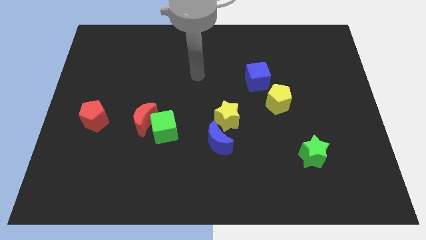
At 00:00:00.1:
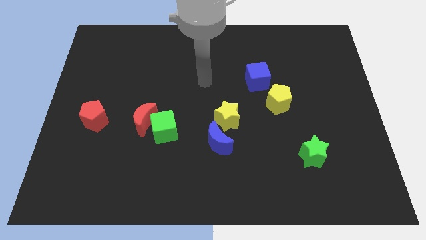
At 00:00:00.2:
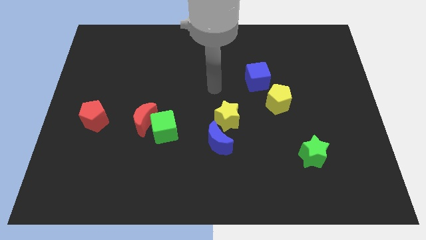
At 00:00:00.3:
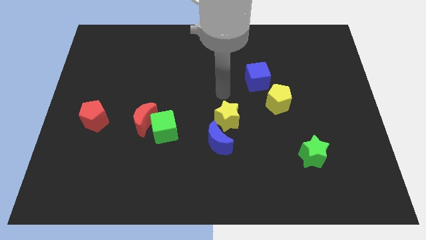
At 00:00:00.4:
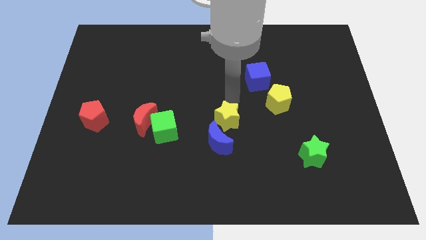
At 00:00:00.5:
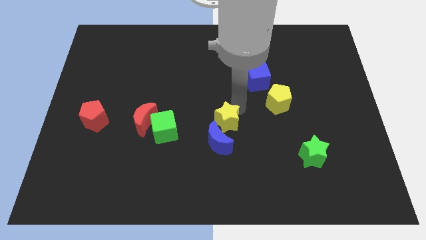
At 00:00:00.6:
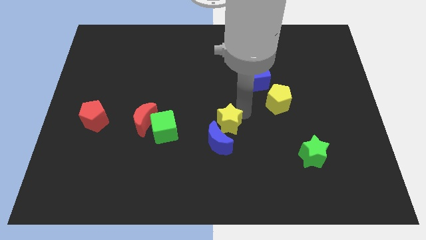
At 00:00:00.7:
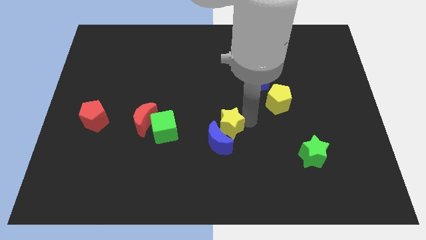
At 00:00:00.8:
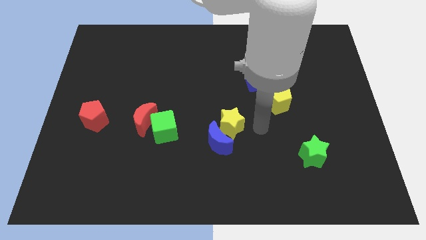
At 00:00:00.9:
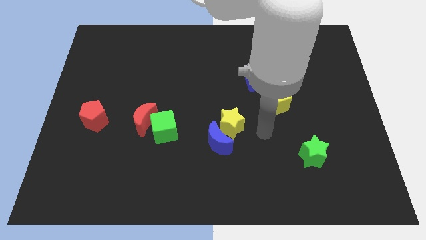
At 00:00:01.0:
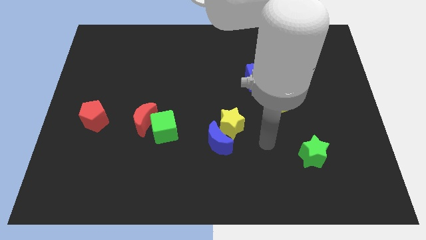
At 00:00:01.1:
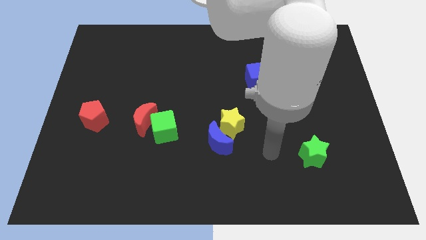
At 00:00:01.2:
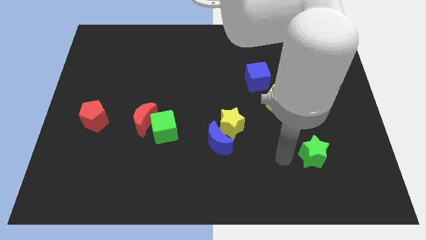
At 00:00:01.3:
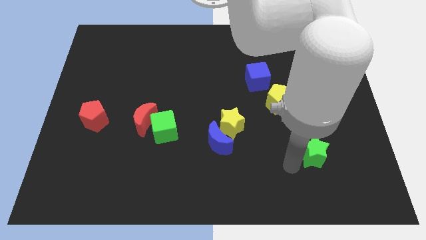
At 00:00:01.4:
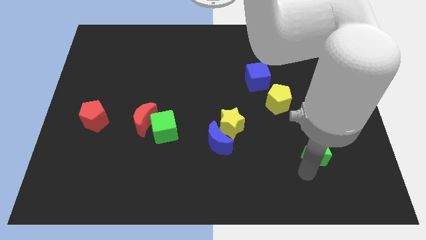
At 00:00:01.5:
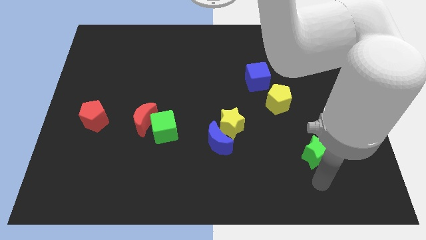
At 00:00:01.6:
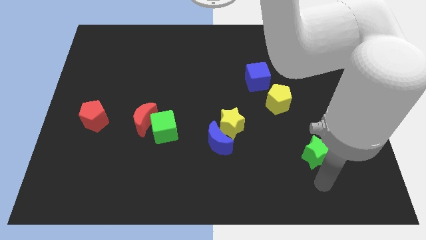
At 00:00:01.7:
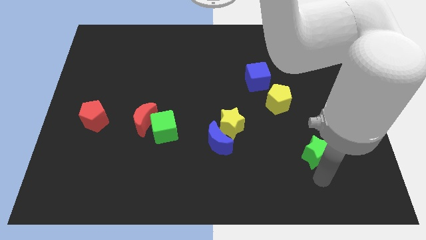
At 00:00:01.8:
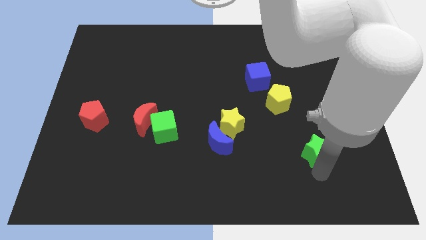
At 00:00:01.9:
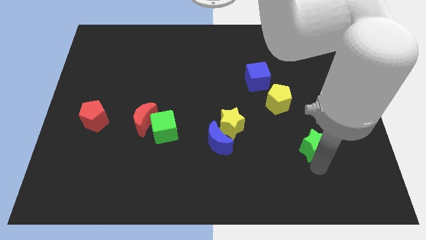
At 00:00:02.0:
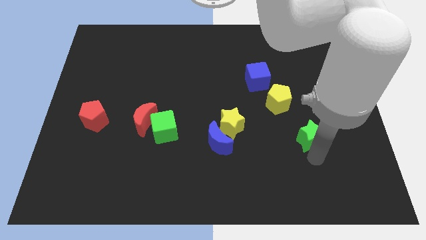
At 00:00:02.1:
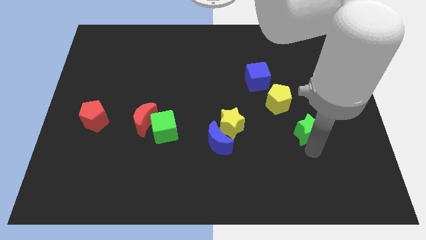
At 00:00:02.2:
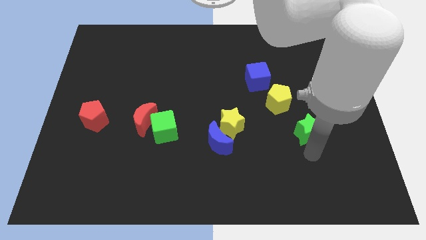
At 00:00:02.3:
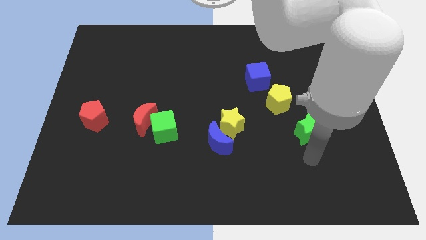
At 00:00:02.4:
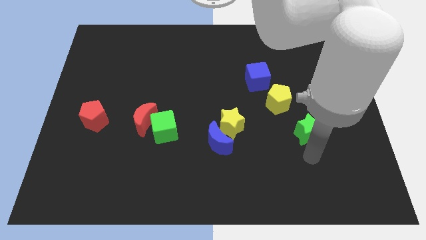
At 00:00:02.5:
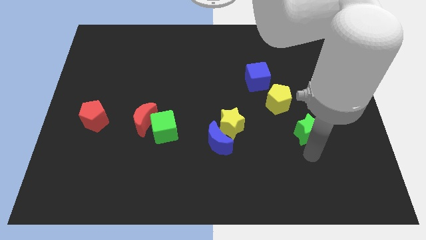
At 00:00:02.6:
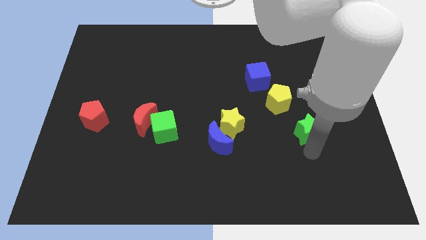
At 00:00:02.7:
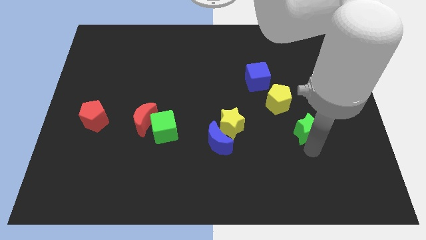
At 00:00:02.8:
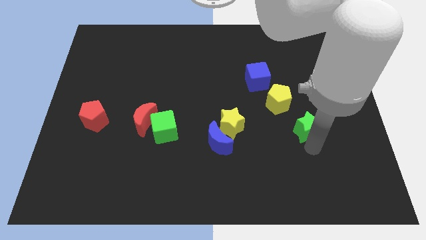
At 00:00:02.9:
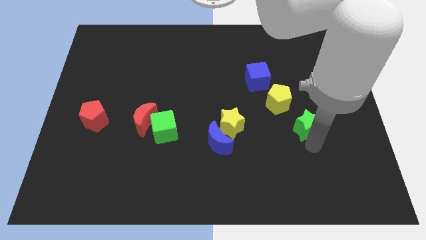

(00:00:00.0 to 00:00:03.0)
move the green star slightly up

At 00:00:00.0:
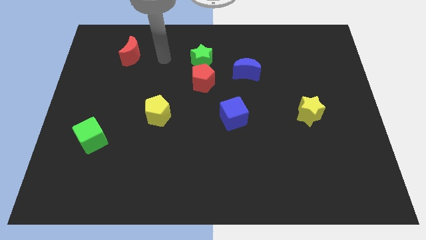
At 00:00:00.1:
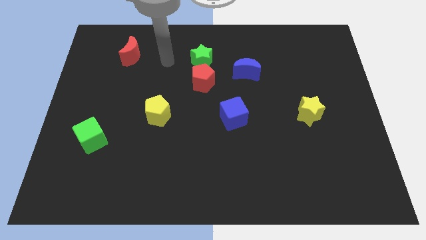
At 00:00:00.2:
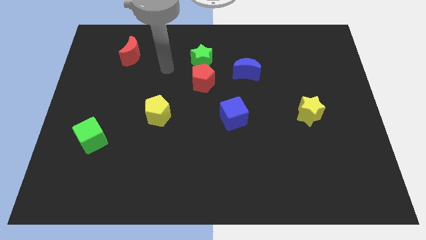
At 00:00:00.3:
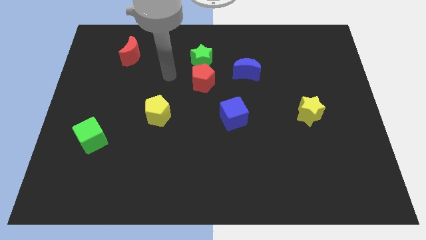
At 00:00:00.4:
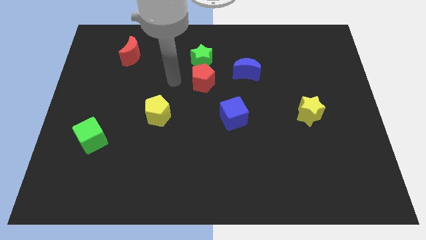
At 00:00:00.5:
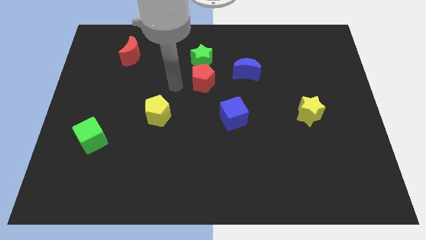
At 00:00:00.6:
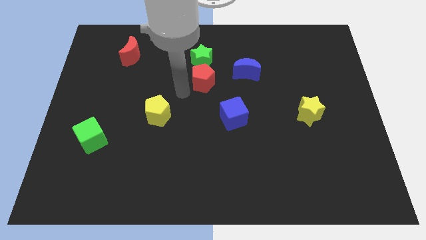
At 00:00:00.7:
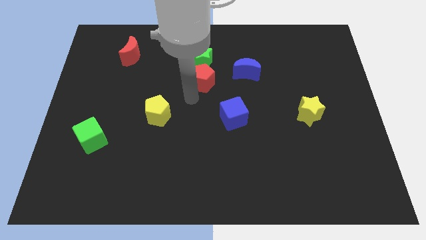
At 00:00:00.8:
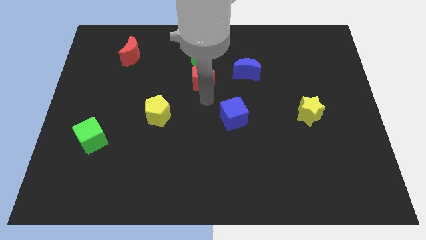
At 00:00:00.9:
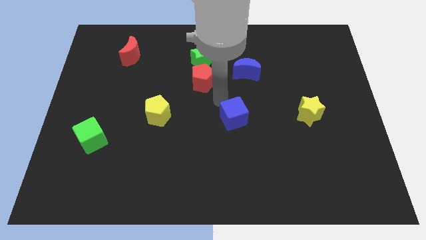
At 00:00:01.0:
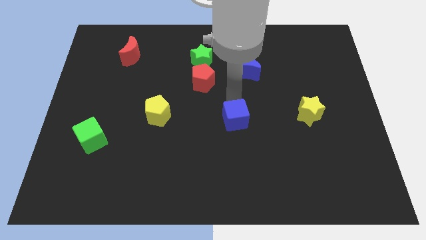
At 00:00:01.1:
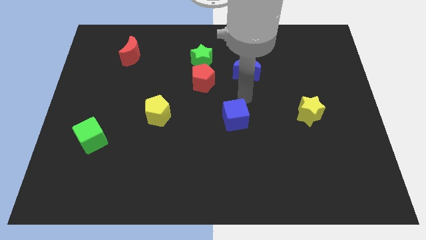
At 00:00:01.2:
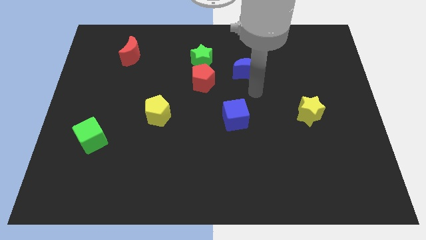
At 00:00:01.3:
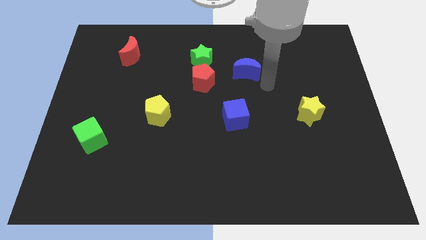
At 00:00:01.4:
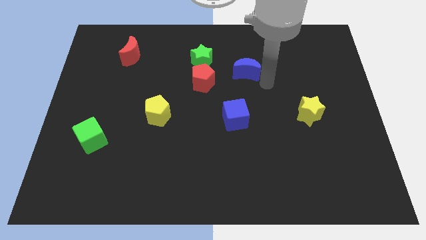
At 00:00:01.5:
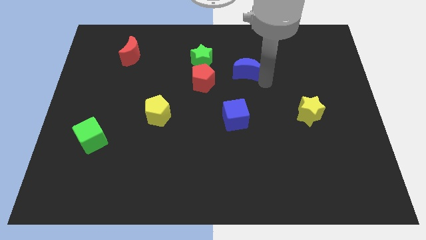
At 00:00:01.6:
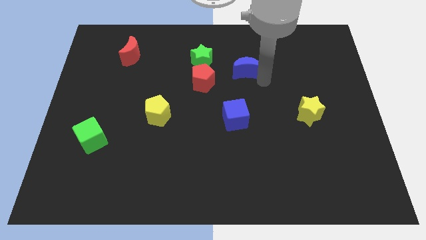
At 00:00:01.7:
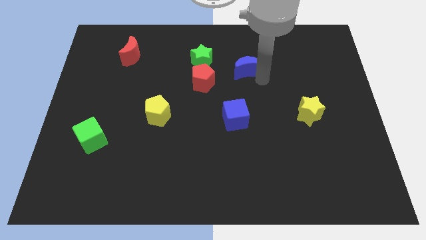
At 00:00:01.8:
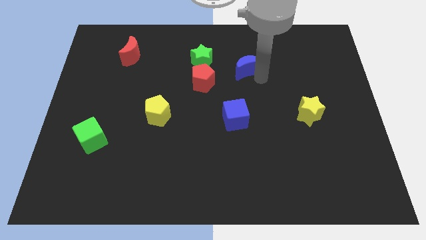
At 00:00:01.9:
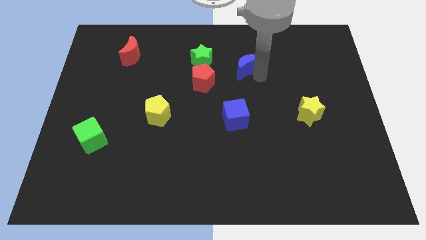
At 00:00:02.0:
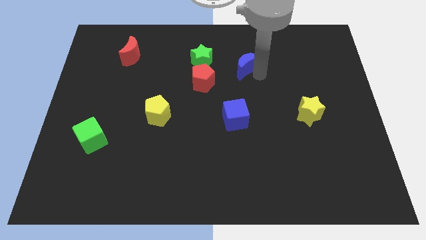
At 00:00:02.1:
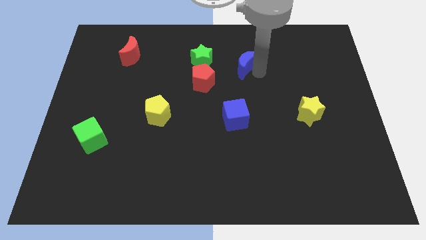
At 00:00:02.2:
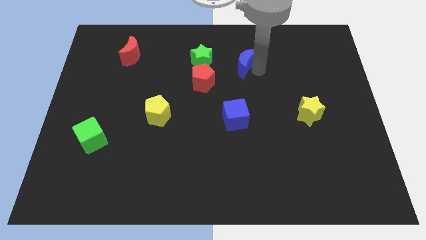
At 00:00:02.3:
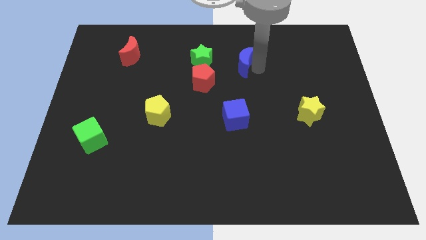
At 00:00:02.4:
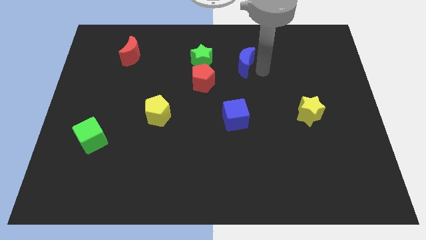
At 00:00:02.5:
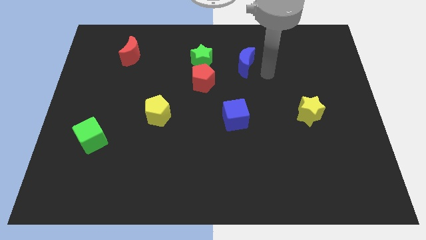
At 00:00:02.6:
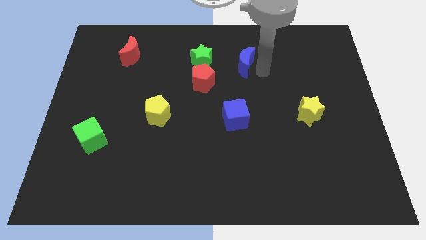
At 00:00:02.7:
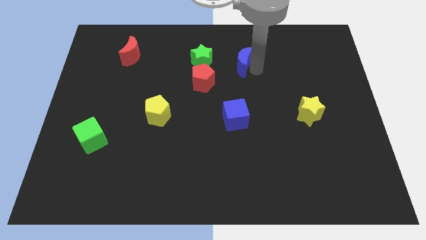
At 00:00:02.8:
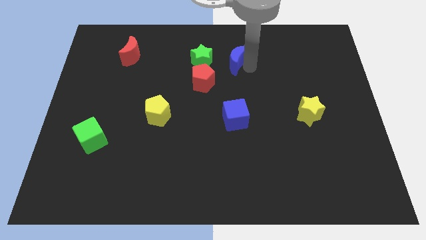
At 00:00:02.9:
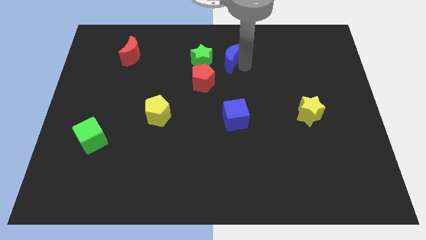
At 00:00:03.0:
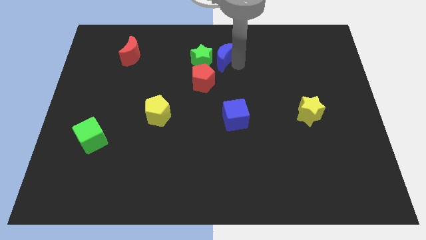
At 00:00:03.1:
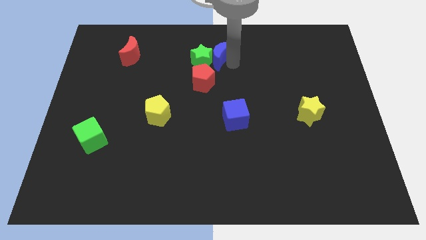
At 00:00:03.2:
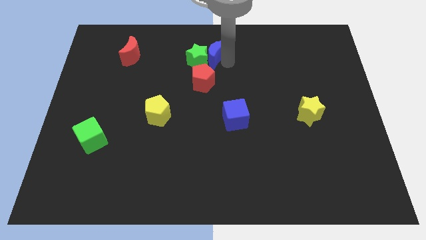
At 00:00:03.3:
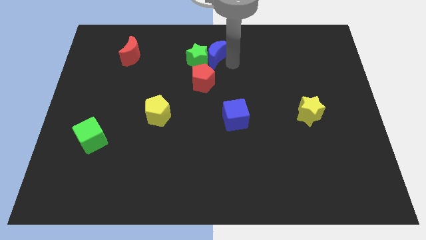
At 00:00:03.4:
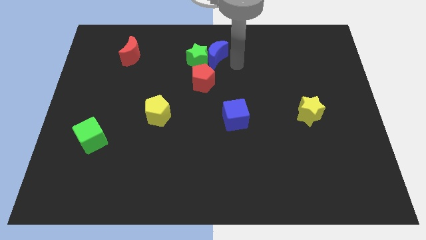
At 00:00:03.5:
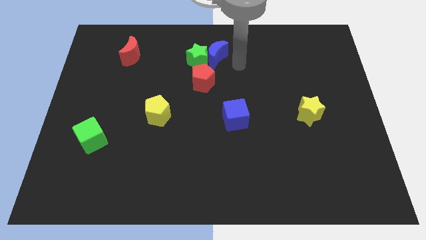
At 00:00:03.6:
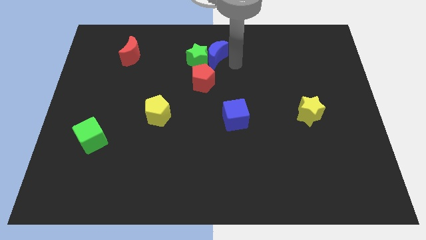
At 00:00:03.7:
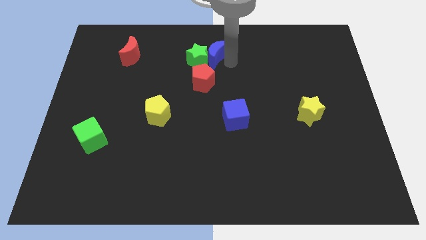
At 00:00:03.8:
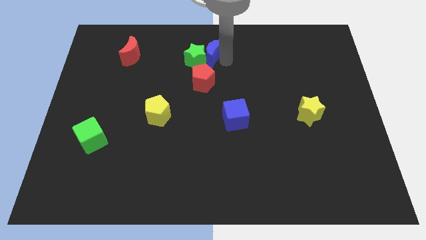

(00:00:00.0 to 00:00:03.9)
push the blue moon to the left somewhat

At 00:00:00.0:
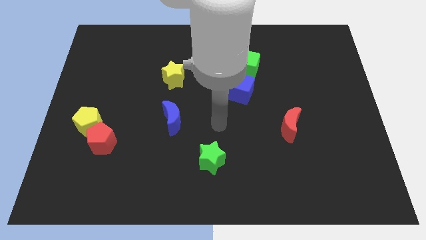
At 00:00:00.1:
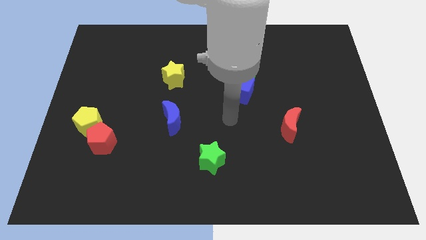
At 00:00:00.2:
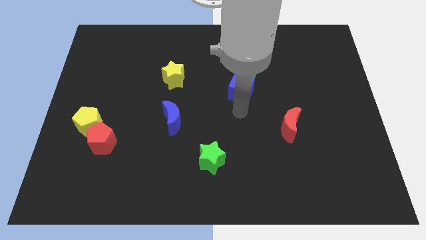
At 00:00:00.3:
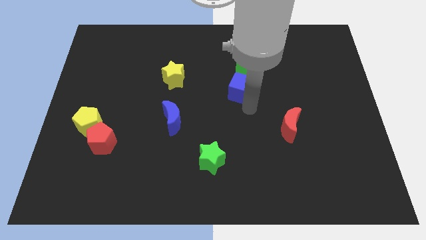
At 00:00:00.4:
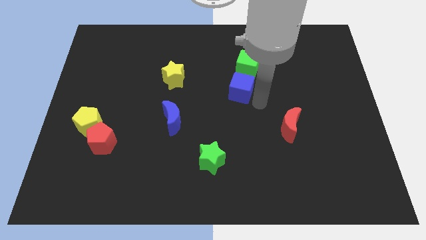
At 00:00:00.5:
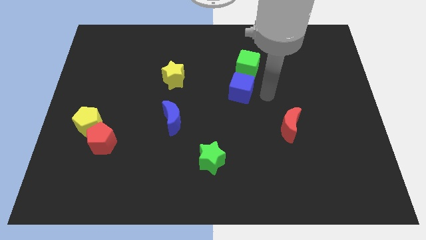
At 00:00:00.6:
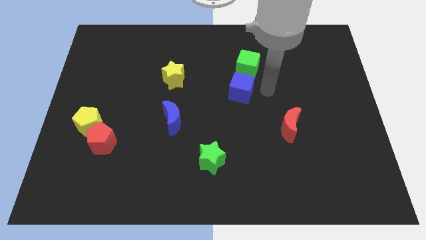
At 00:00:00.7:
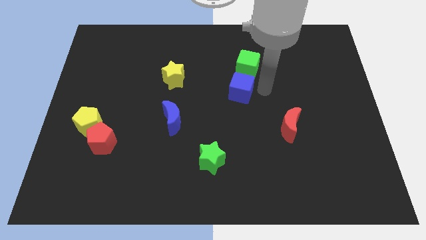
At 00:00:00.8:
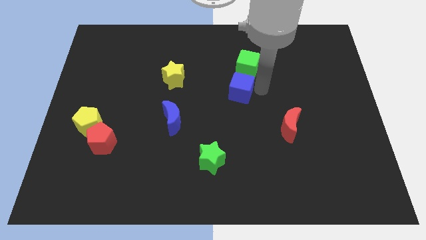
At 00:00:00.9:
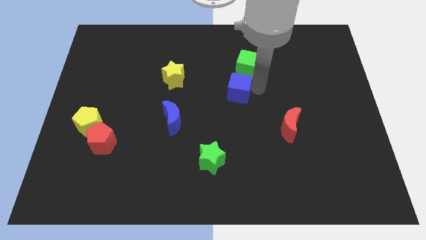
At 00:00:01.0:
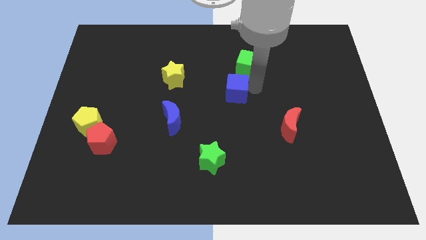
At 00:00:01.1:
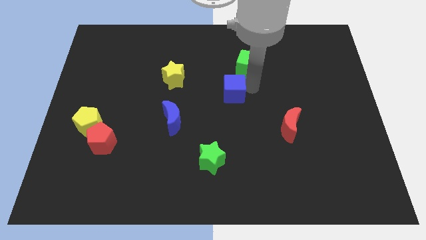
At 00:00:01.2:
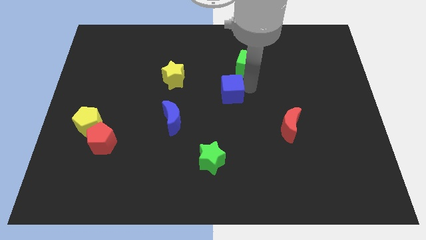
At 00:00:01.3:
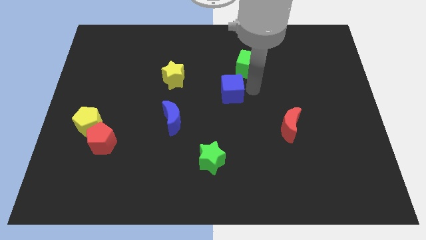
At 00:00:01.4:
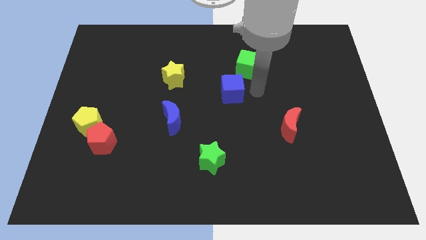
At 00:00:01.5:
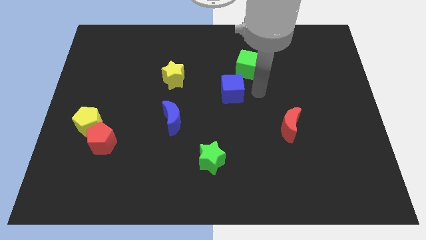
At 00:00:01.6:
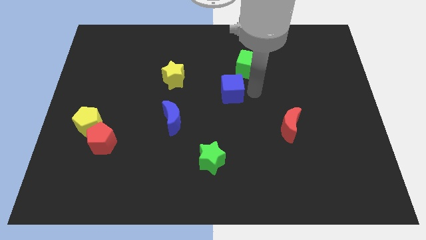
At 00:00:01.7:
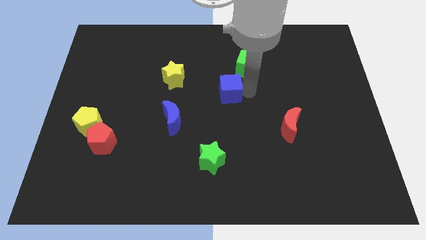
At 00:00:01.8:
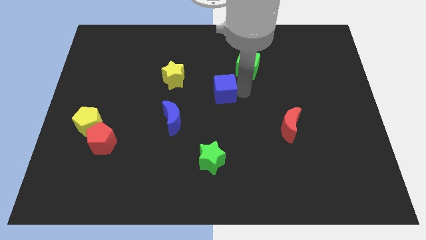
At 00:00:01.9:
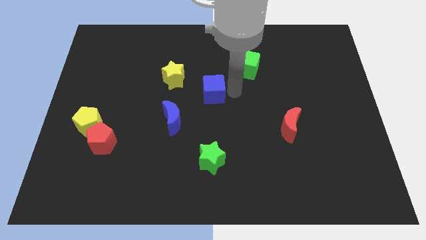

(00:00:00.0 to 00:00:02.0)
move the blue cube left slightly
